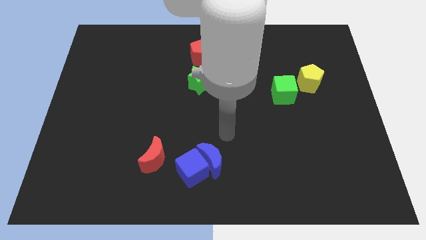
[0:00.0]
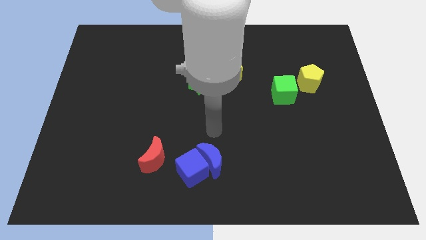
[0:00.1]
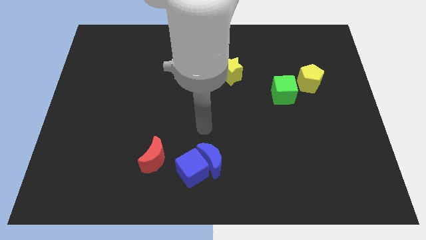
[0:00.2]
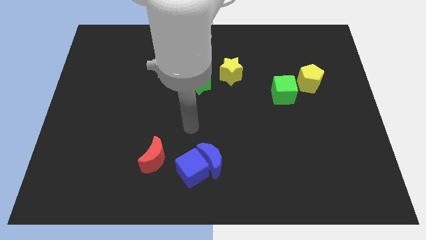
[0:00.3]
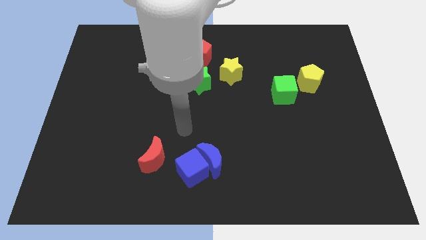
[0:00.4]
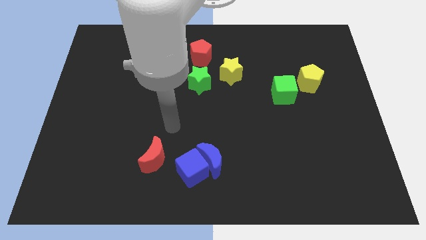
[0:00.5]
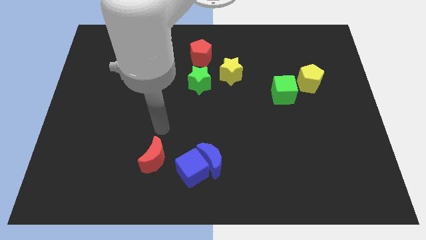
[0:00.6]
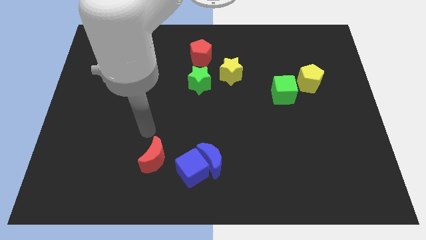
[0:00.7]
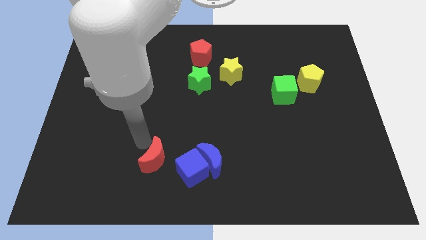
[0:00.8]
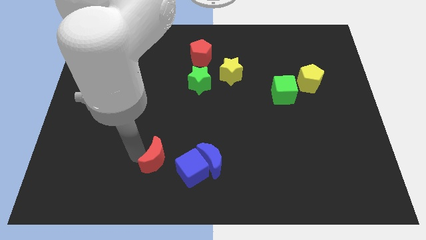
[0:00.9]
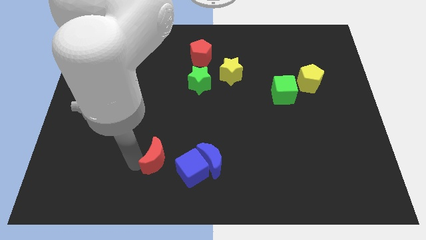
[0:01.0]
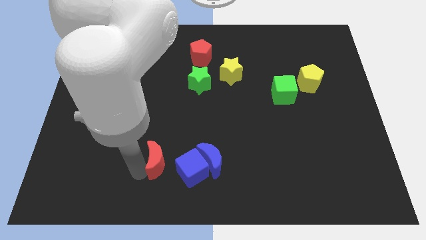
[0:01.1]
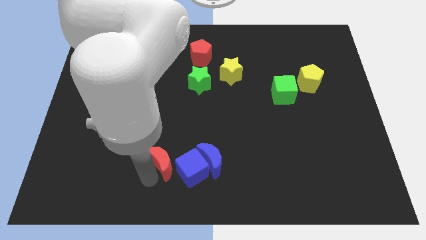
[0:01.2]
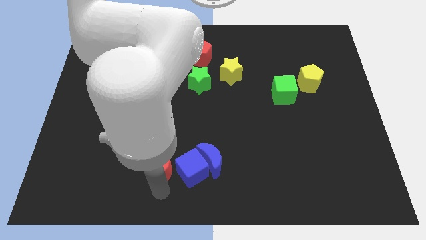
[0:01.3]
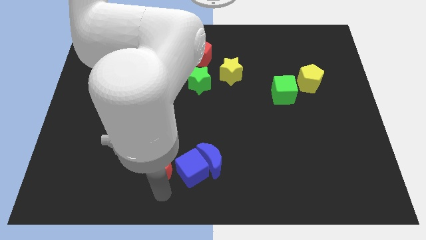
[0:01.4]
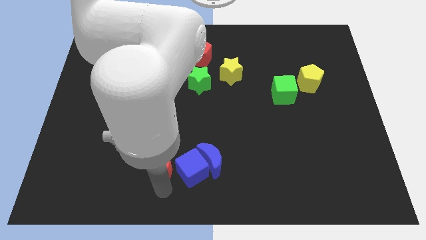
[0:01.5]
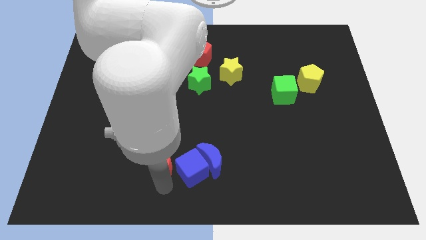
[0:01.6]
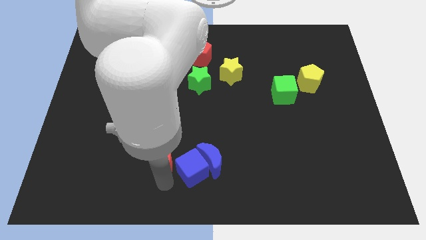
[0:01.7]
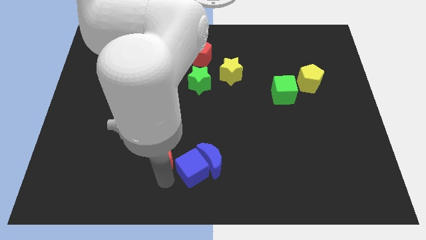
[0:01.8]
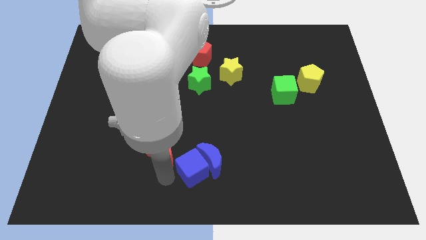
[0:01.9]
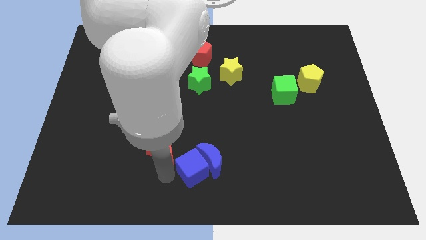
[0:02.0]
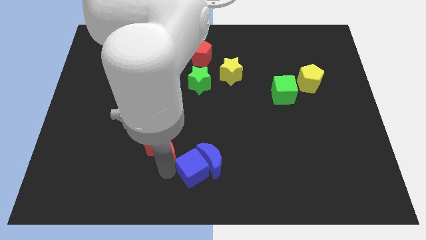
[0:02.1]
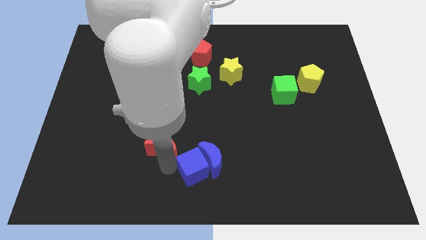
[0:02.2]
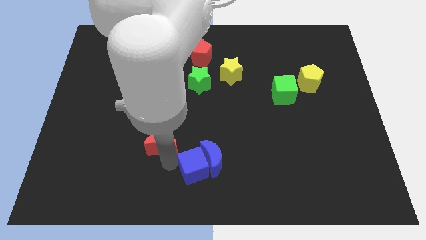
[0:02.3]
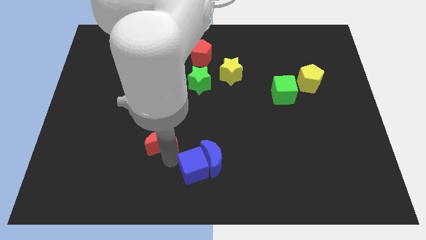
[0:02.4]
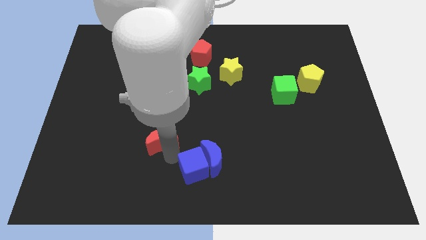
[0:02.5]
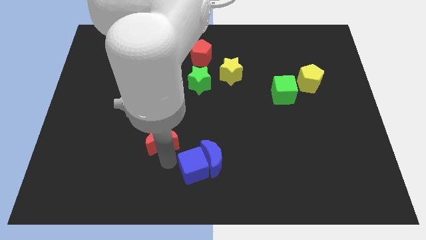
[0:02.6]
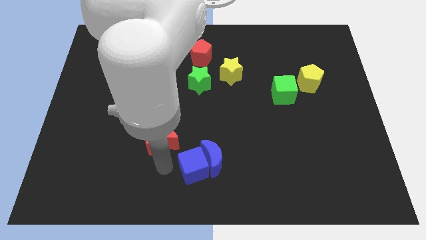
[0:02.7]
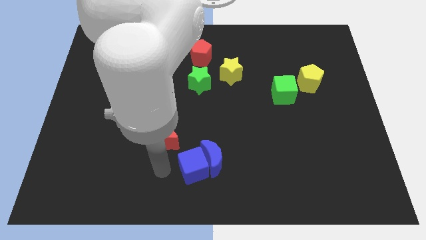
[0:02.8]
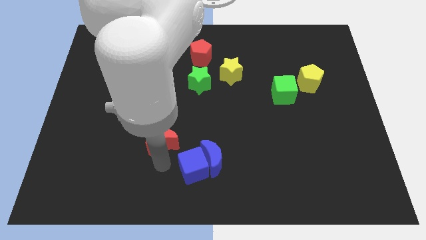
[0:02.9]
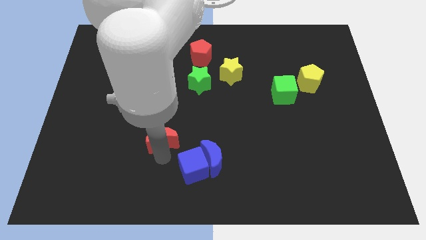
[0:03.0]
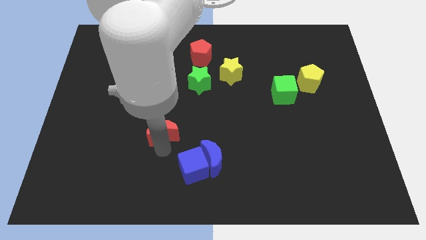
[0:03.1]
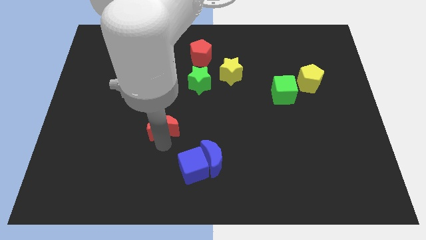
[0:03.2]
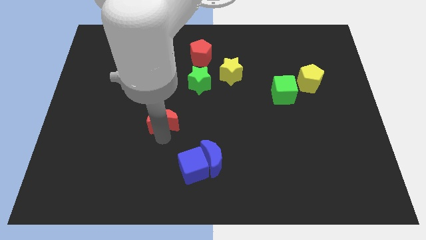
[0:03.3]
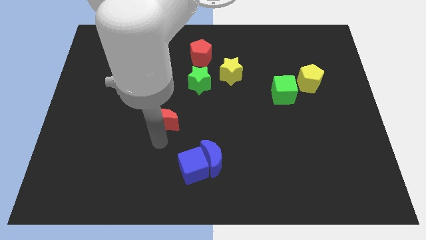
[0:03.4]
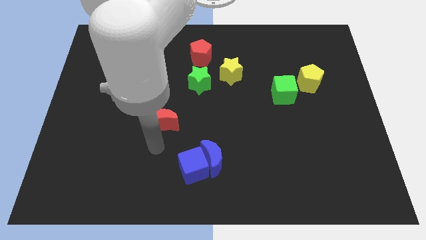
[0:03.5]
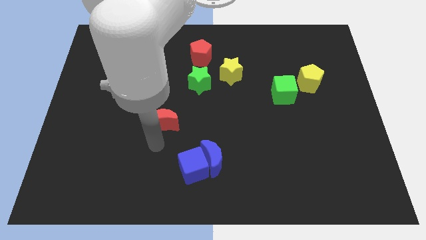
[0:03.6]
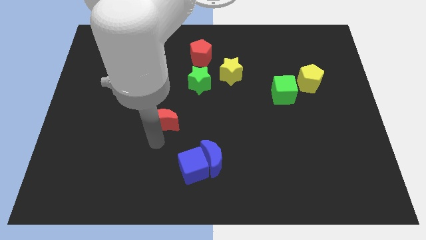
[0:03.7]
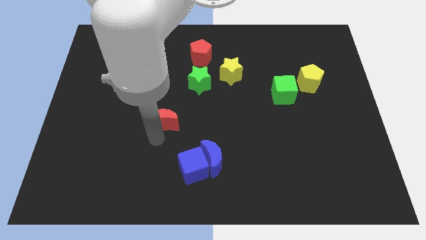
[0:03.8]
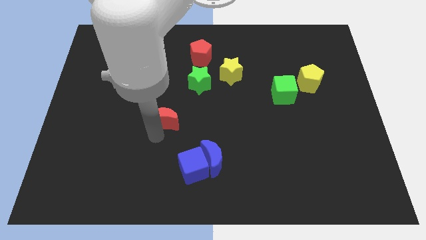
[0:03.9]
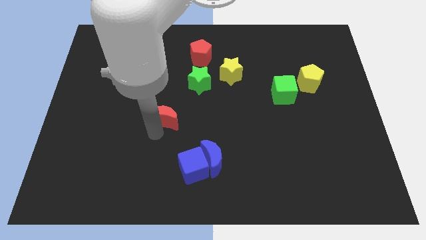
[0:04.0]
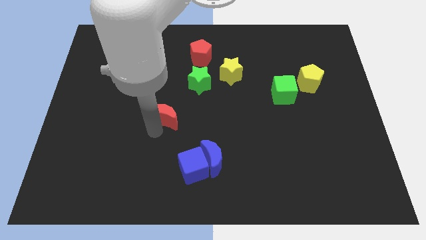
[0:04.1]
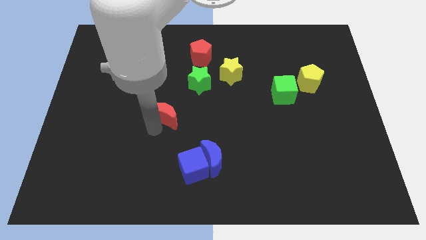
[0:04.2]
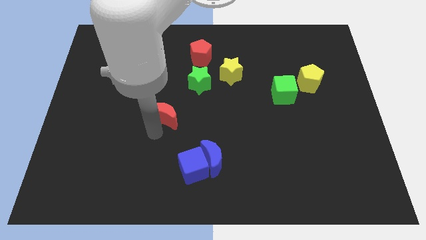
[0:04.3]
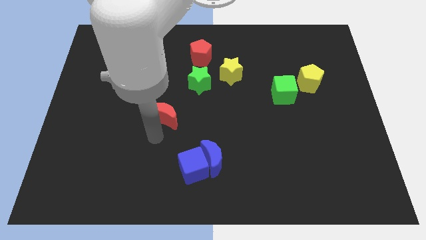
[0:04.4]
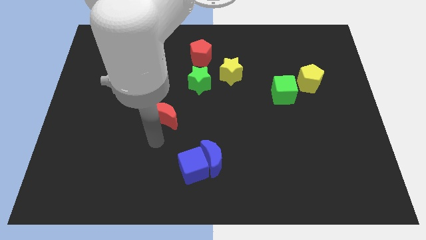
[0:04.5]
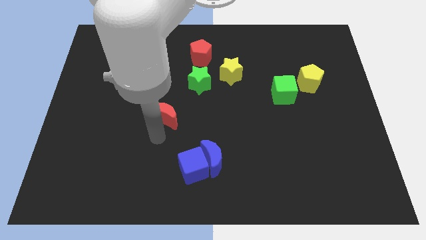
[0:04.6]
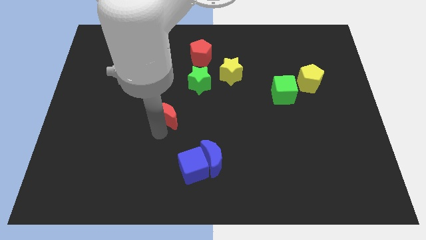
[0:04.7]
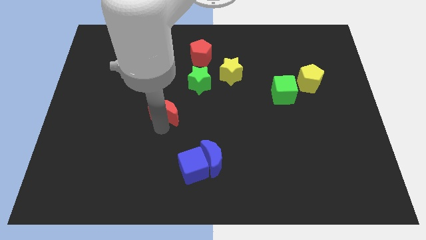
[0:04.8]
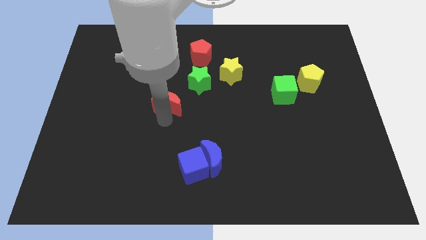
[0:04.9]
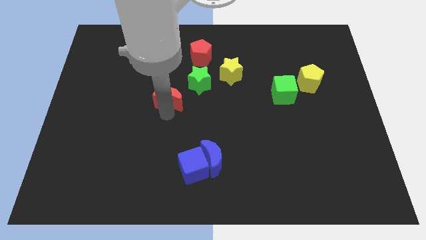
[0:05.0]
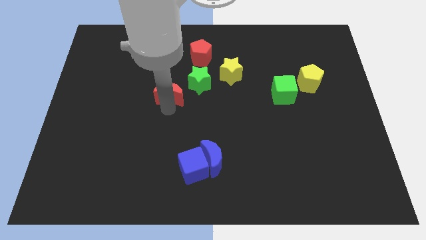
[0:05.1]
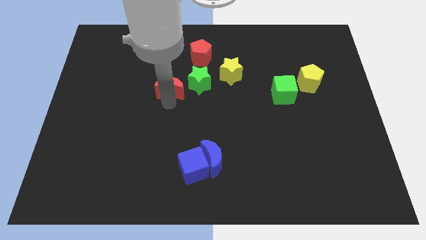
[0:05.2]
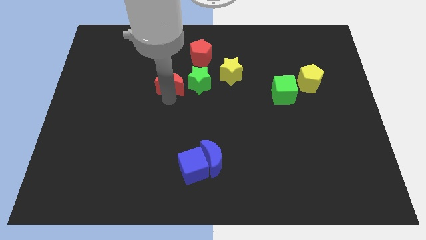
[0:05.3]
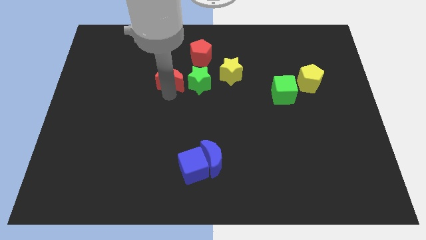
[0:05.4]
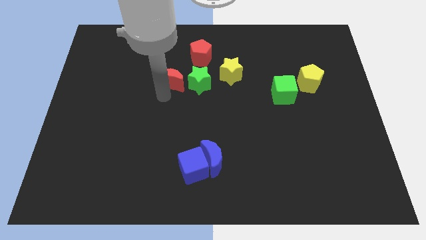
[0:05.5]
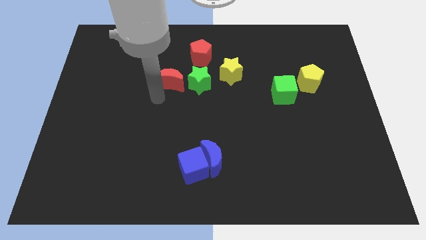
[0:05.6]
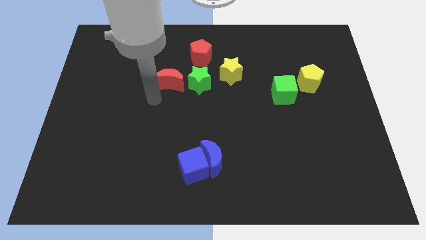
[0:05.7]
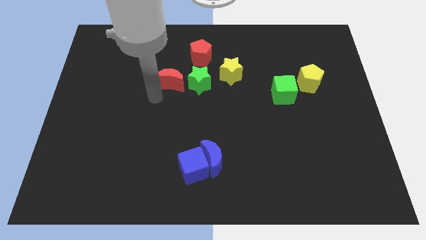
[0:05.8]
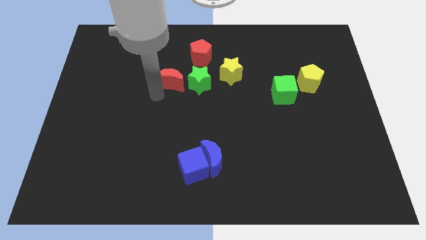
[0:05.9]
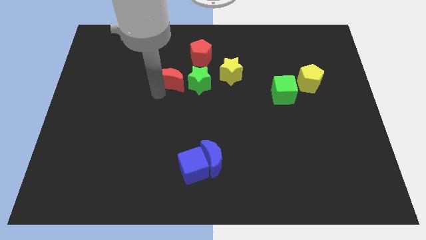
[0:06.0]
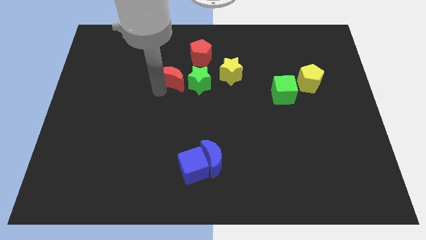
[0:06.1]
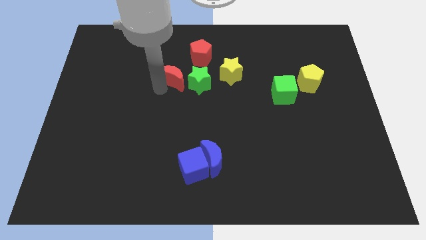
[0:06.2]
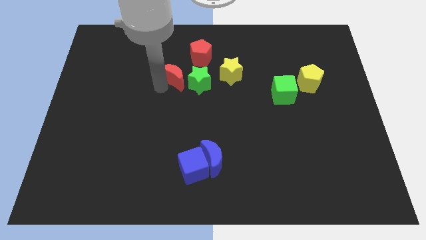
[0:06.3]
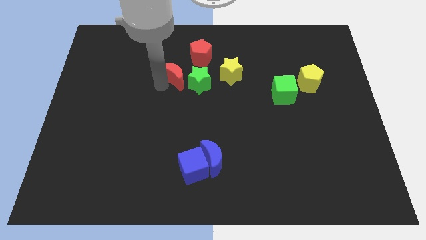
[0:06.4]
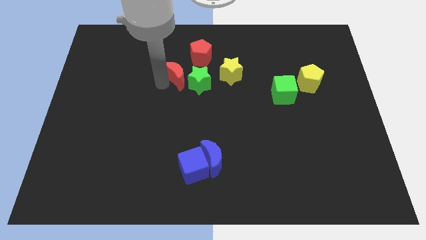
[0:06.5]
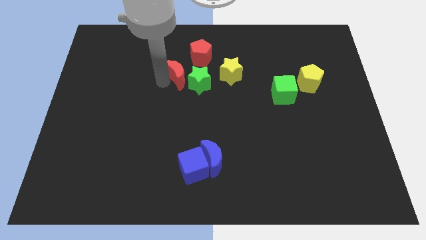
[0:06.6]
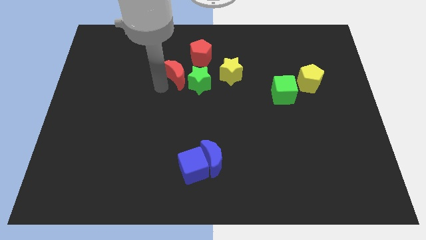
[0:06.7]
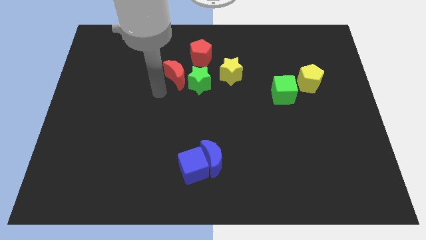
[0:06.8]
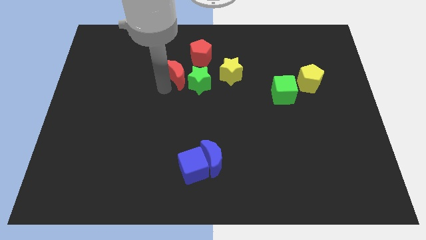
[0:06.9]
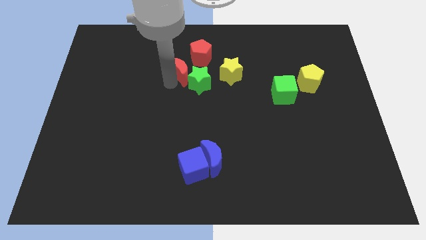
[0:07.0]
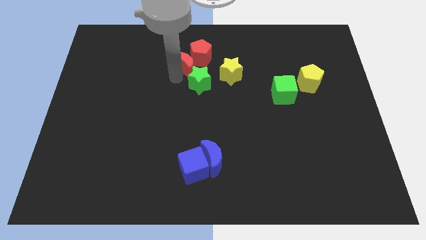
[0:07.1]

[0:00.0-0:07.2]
push the red moon close to the red pentagon

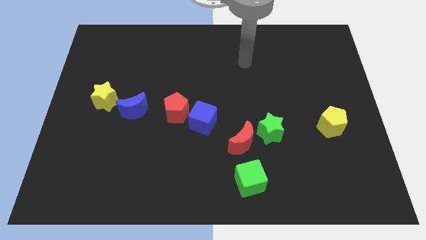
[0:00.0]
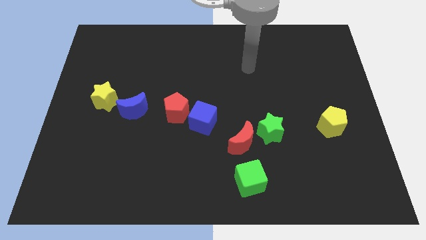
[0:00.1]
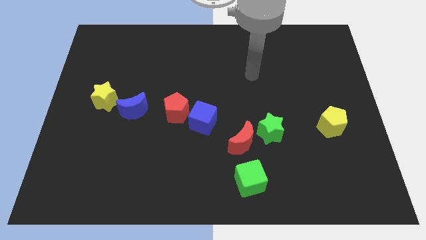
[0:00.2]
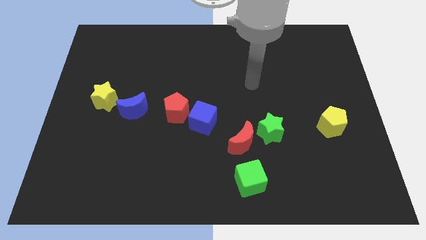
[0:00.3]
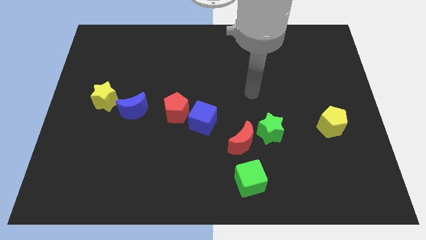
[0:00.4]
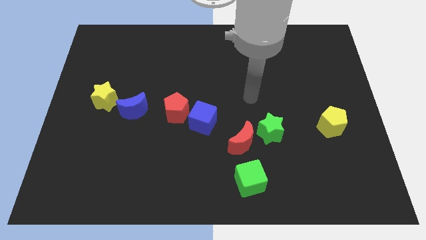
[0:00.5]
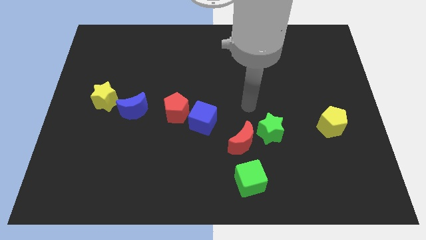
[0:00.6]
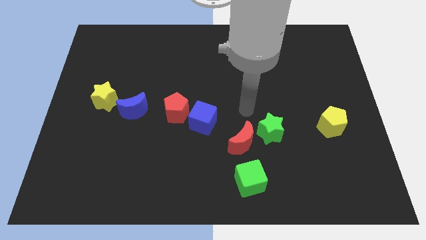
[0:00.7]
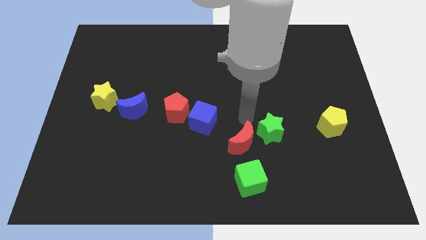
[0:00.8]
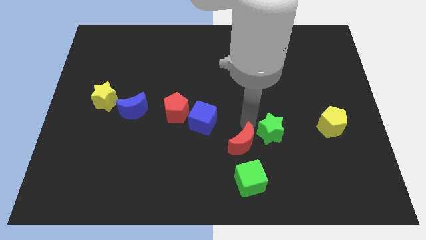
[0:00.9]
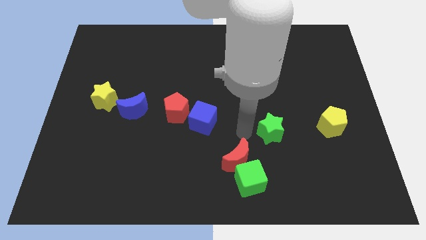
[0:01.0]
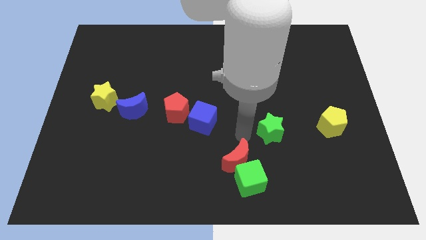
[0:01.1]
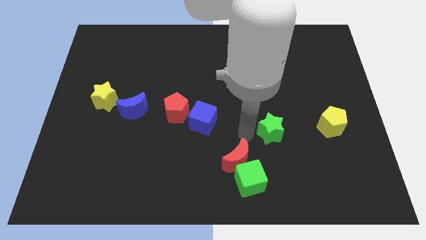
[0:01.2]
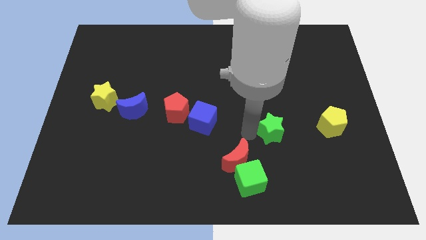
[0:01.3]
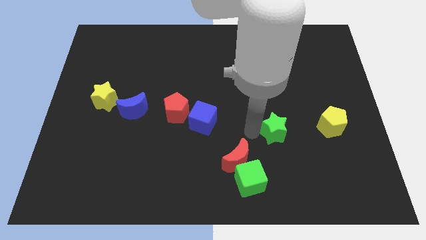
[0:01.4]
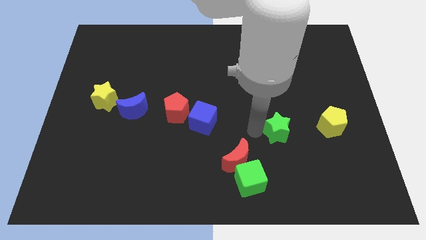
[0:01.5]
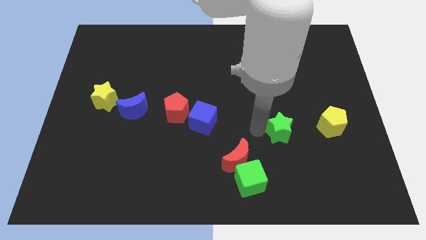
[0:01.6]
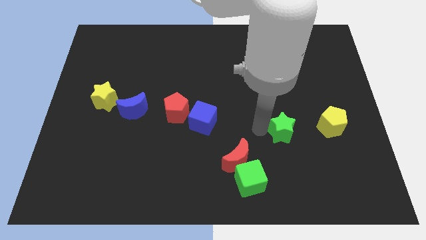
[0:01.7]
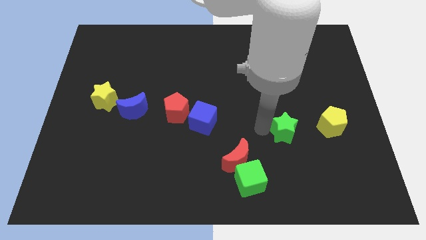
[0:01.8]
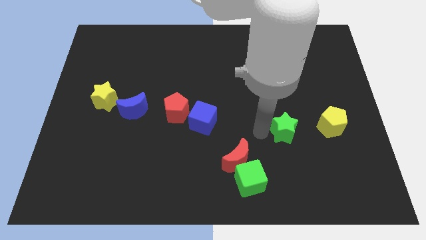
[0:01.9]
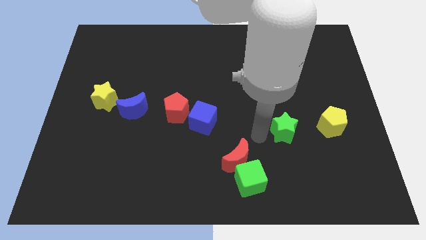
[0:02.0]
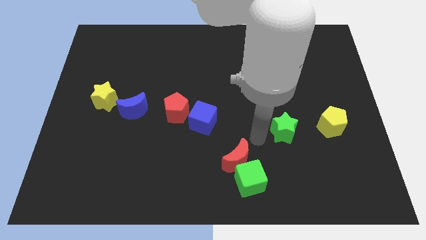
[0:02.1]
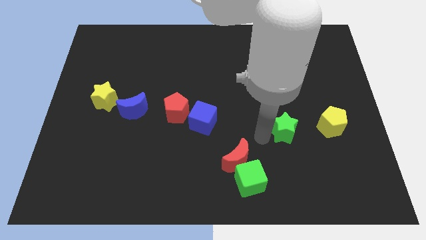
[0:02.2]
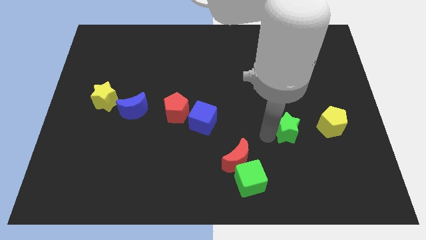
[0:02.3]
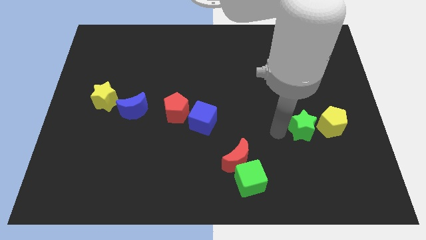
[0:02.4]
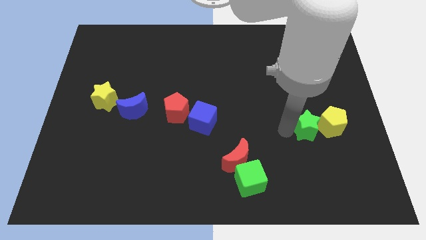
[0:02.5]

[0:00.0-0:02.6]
slide the green star close to the yellow pentagon
